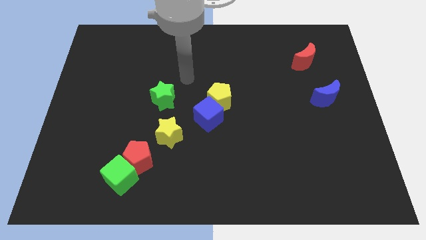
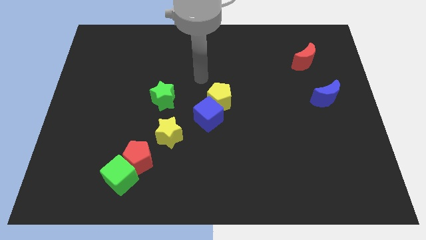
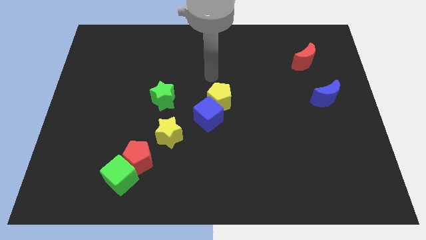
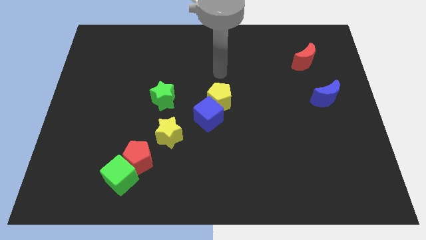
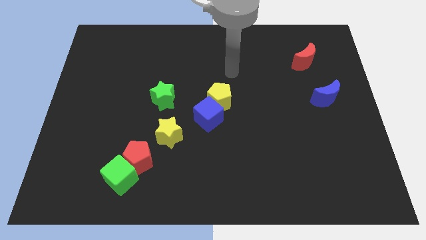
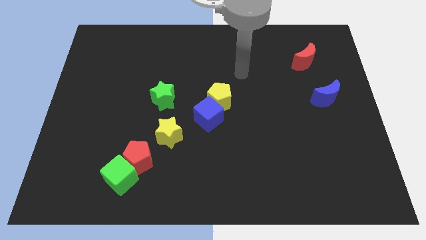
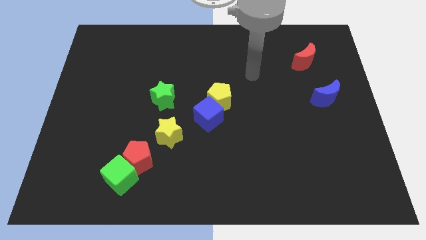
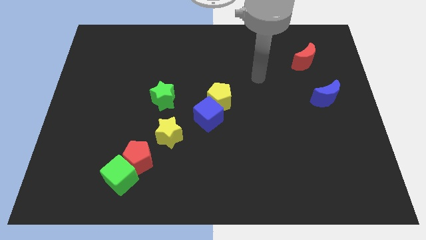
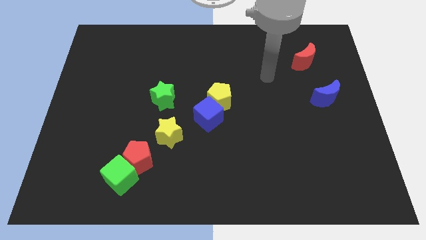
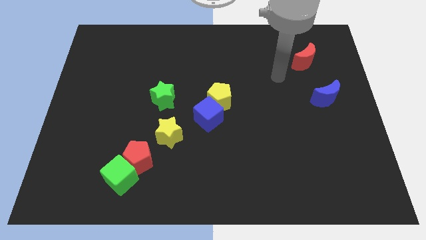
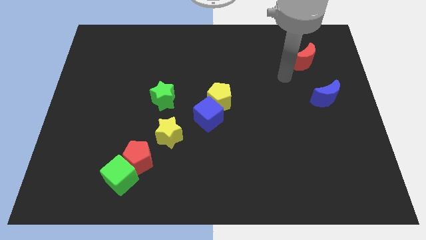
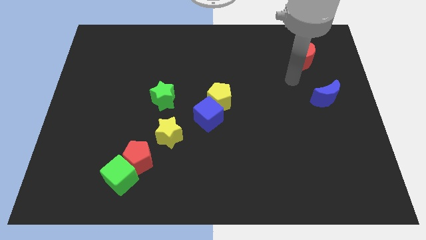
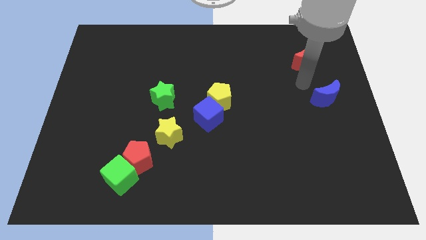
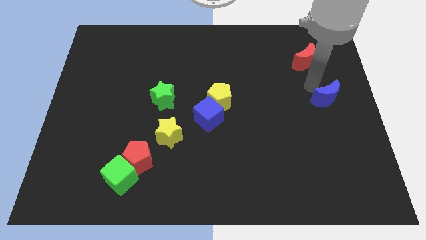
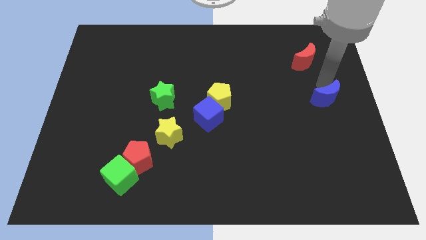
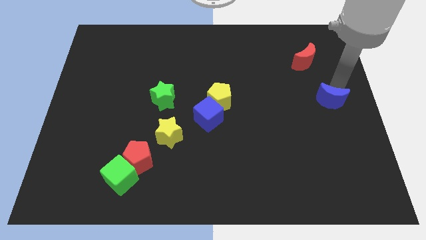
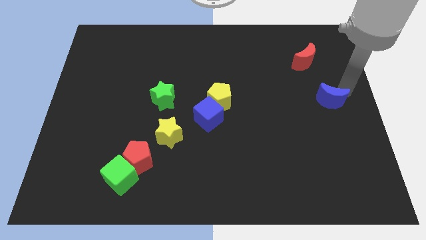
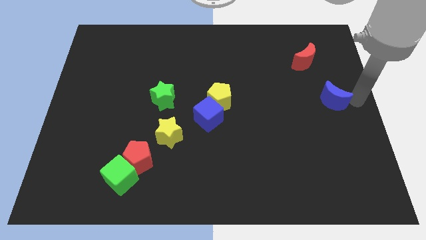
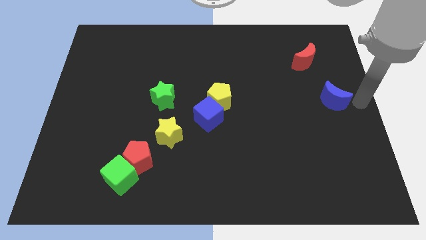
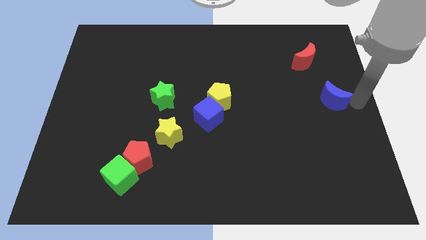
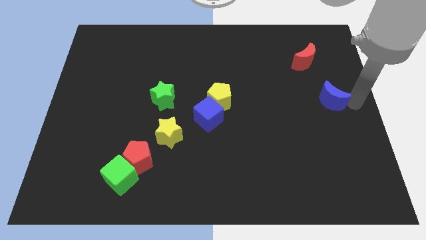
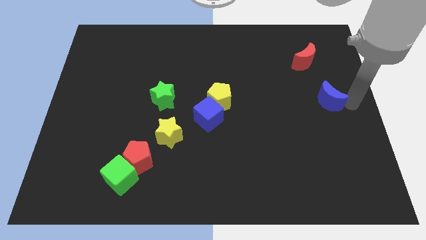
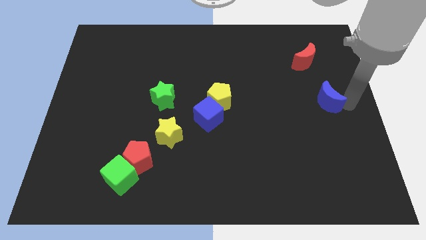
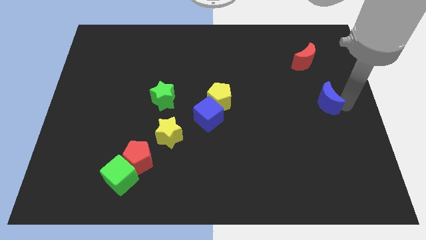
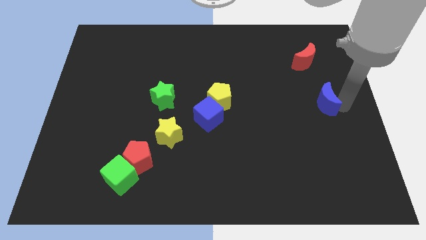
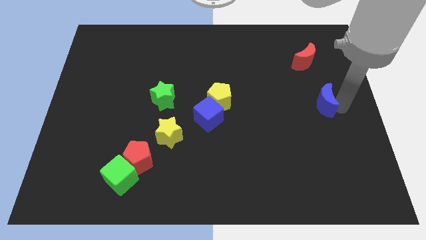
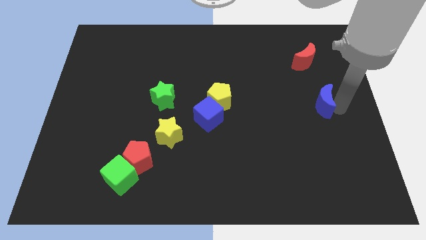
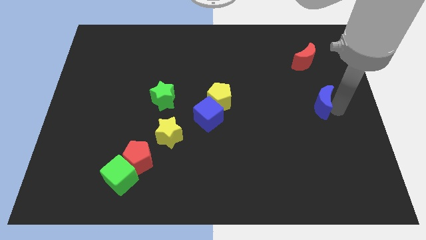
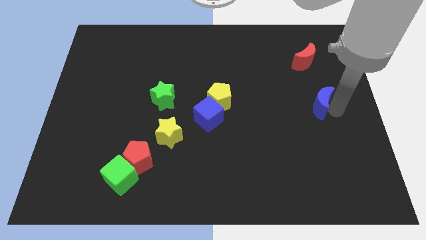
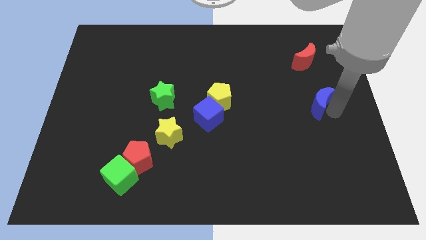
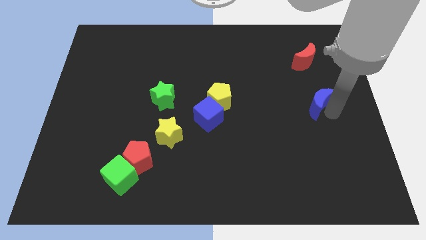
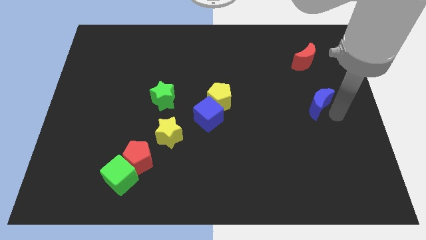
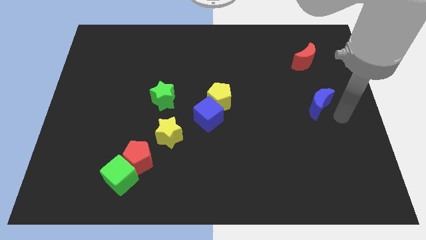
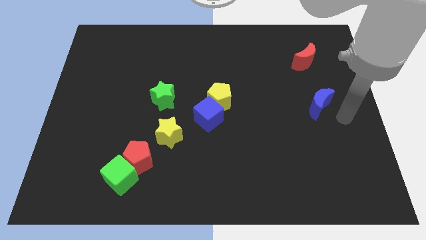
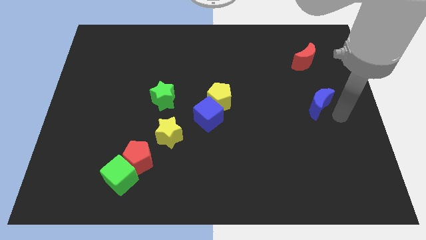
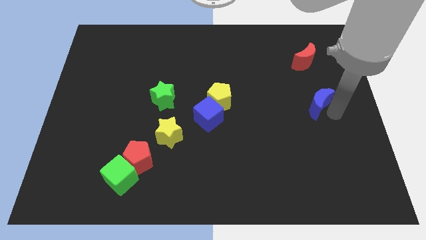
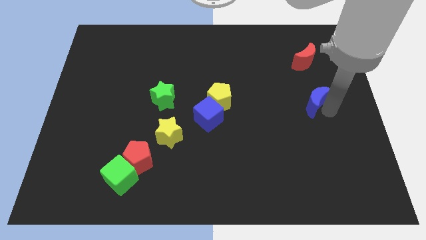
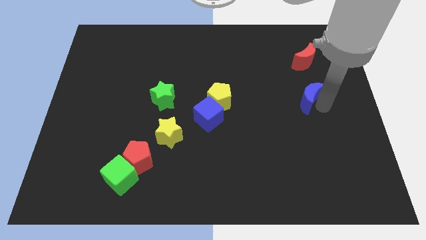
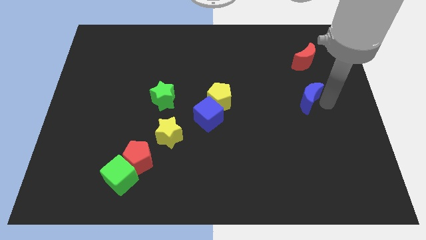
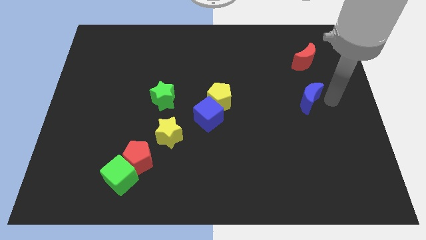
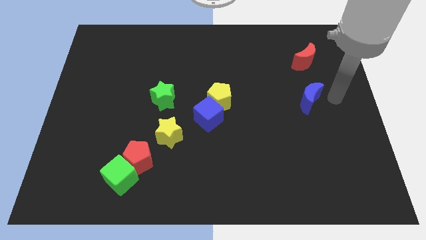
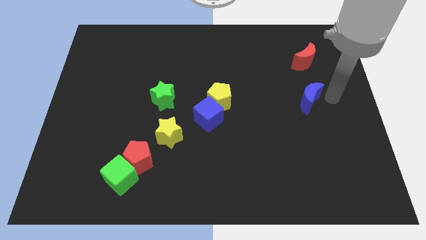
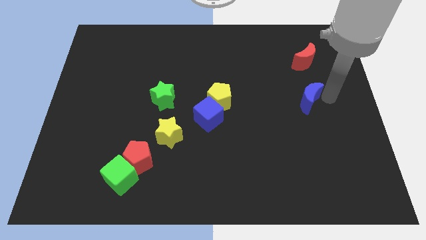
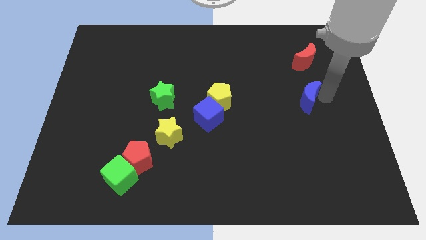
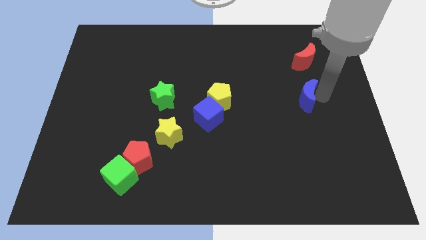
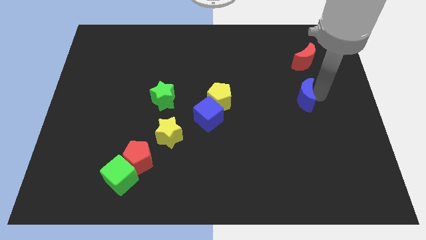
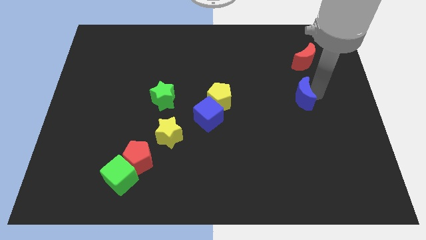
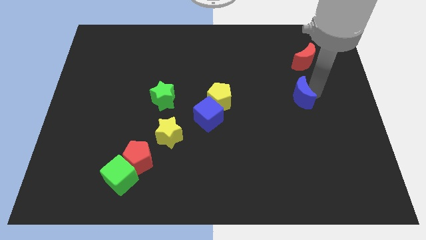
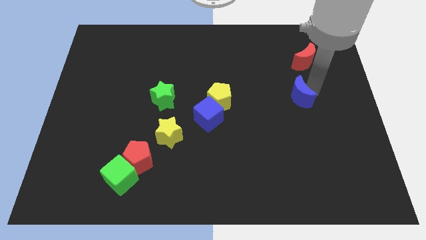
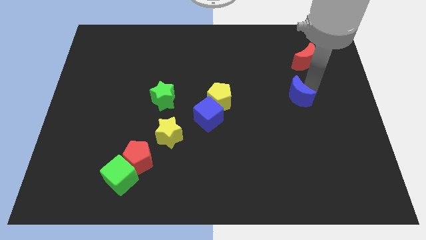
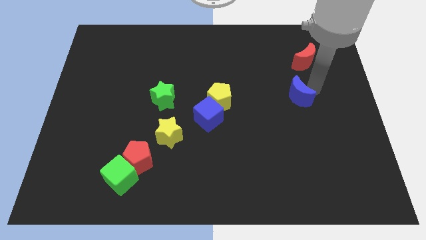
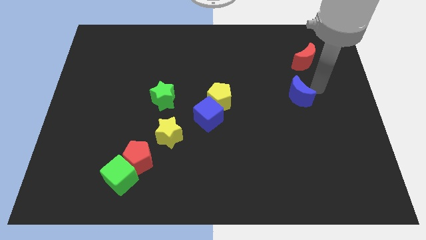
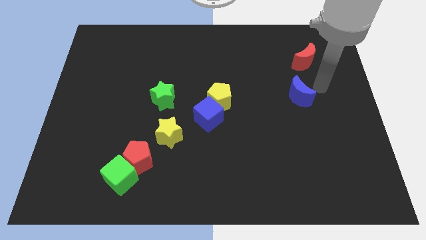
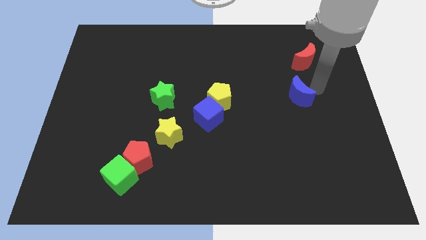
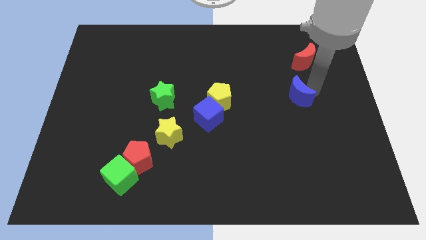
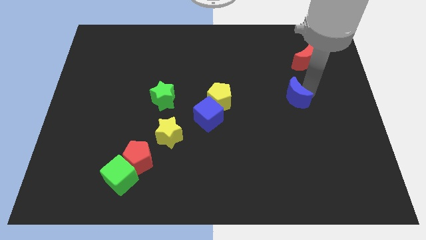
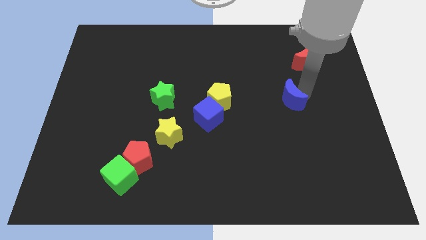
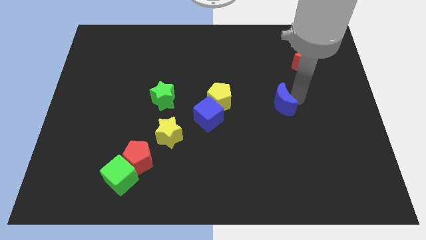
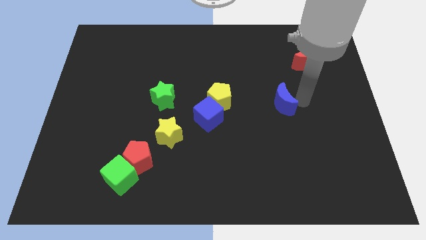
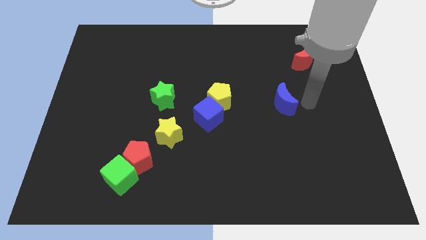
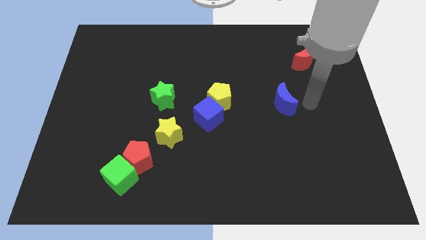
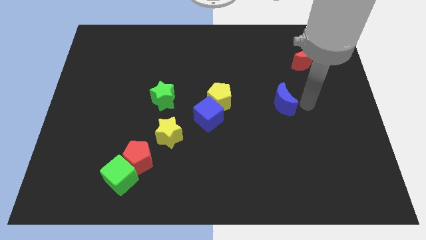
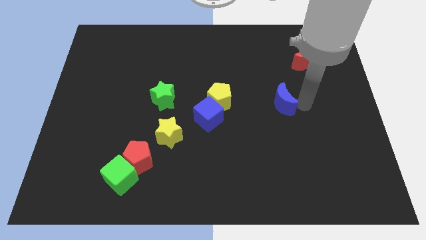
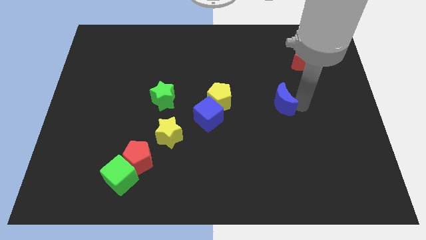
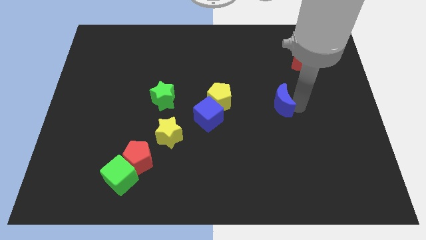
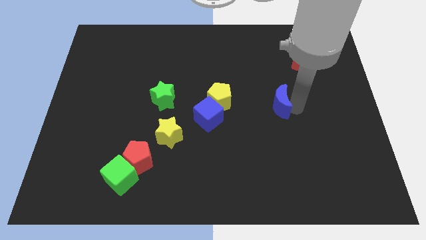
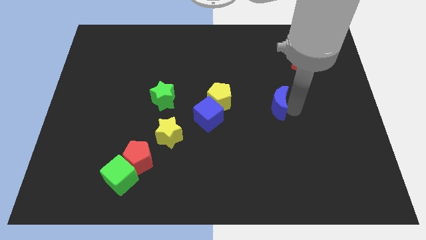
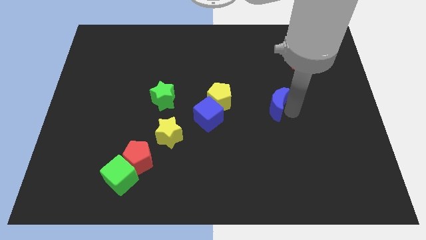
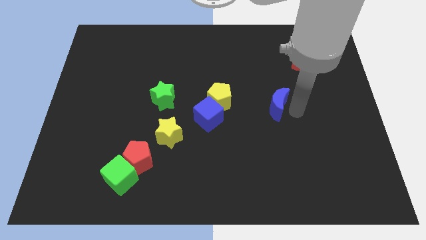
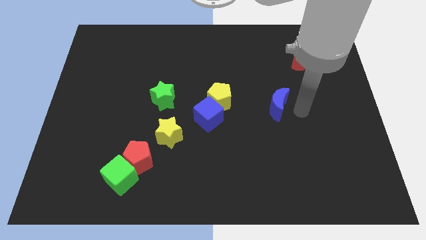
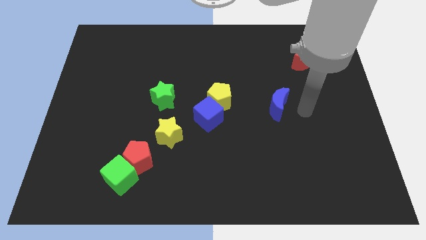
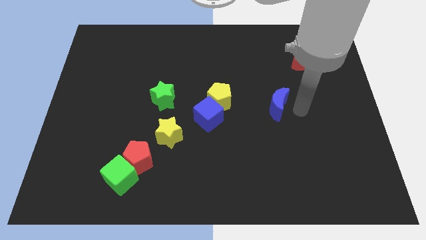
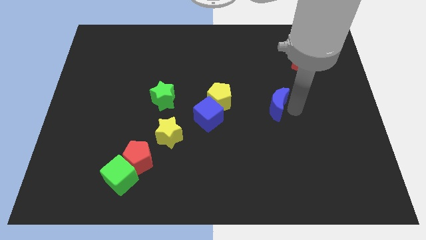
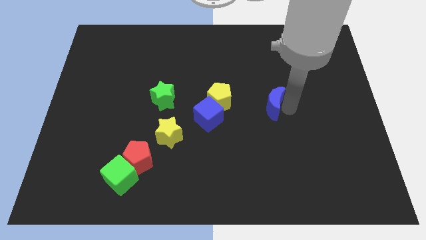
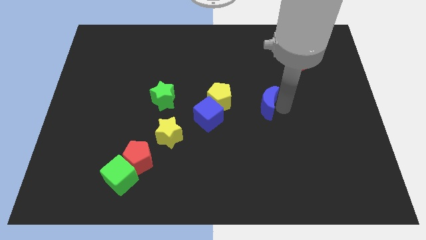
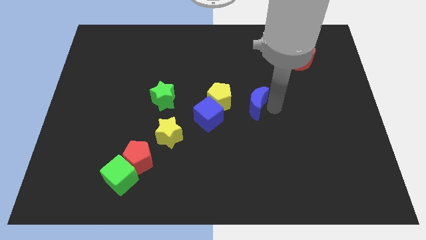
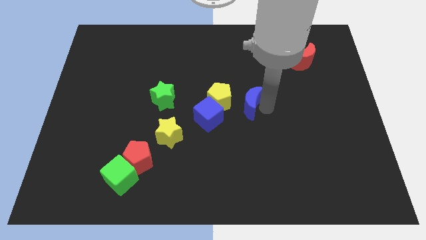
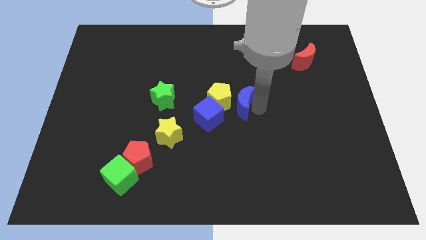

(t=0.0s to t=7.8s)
move the blue moon to the left
